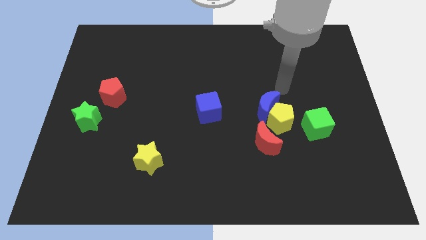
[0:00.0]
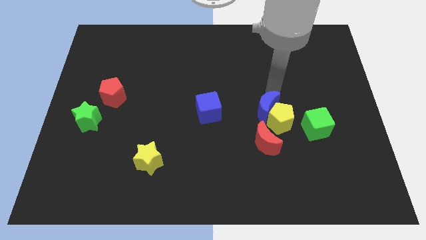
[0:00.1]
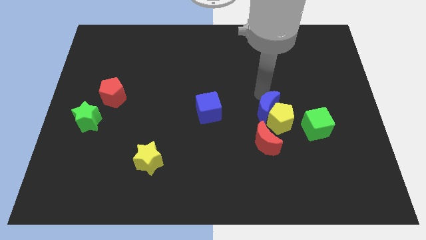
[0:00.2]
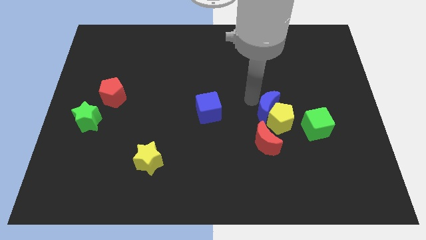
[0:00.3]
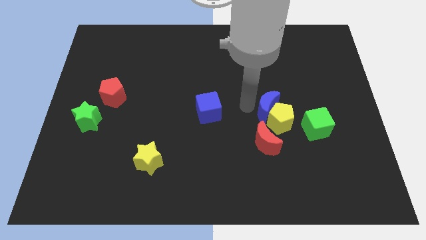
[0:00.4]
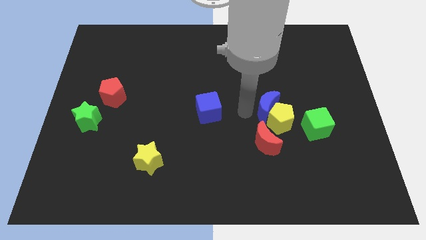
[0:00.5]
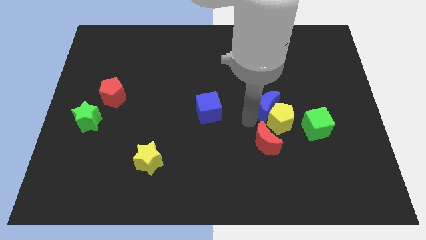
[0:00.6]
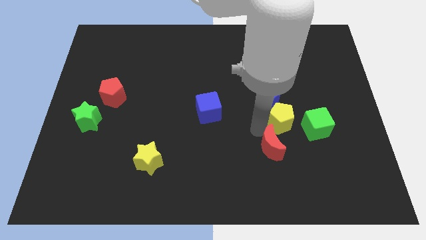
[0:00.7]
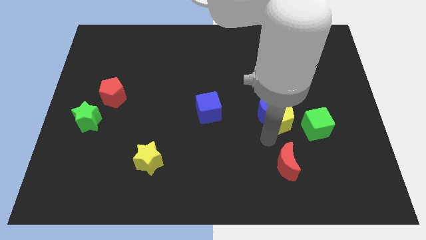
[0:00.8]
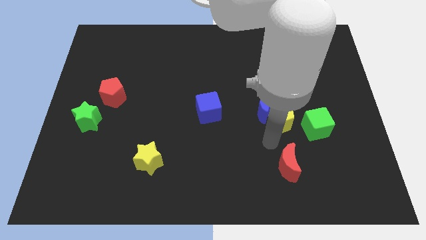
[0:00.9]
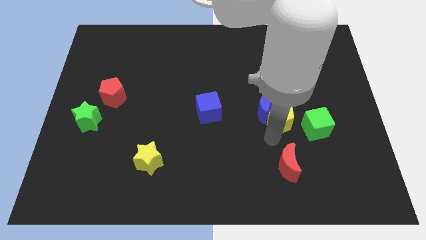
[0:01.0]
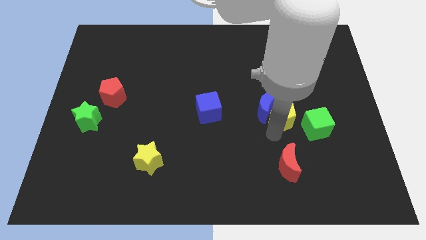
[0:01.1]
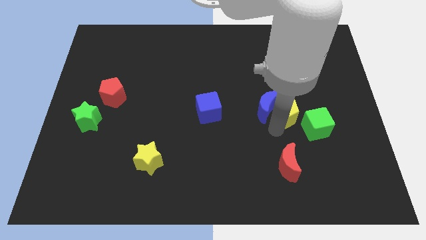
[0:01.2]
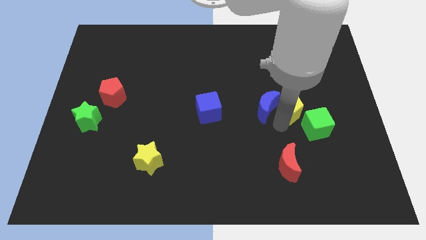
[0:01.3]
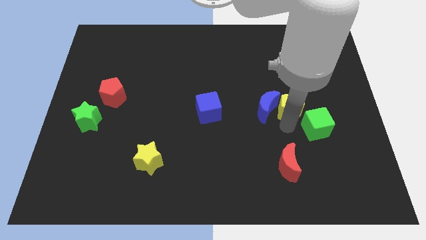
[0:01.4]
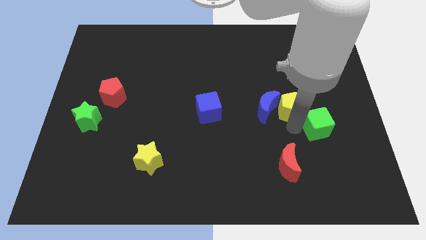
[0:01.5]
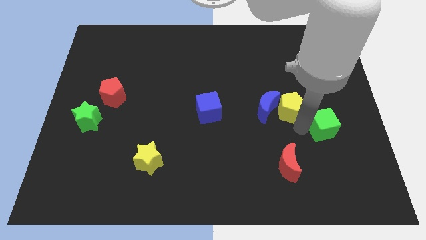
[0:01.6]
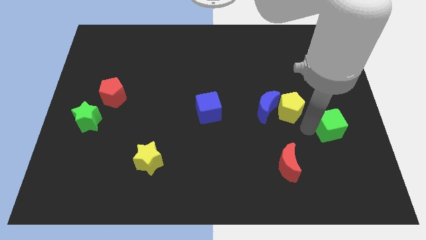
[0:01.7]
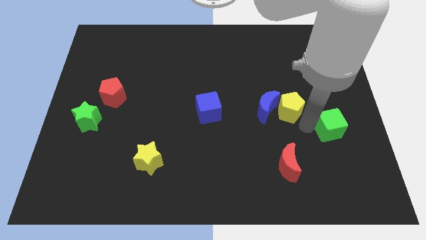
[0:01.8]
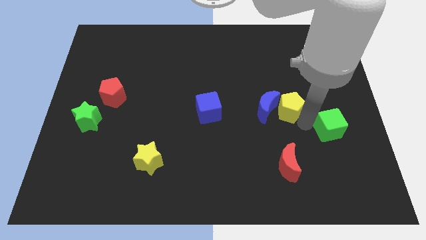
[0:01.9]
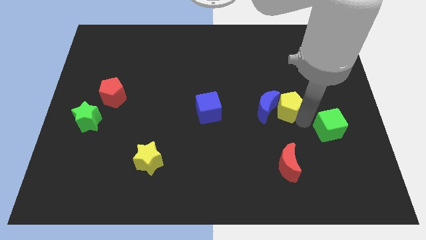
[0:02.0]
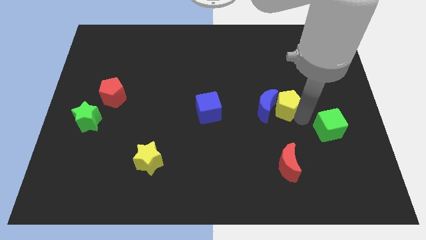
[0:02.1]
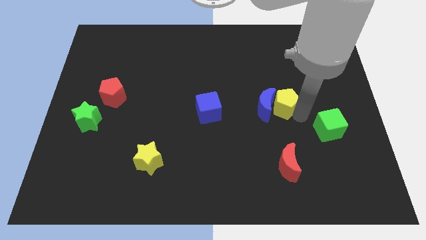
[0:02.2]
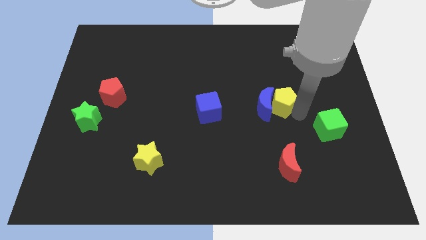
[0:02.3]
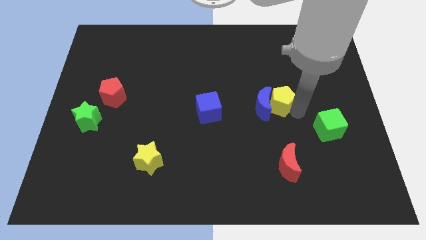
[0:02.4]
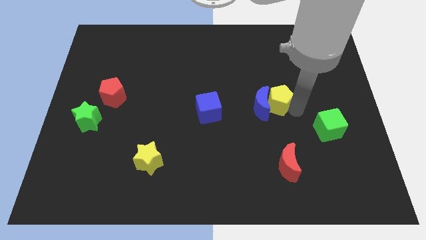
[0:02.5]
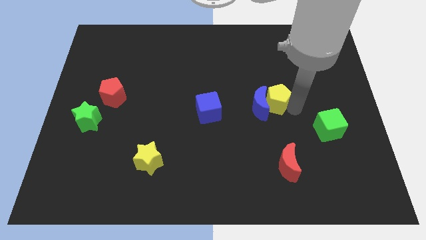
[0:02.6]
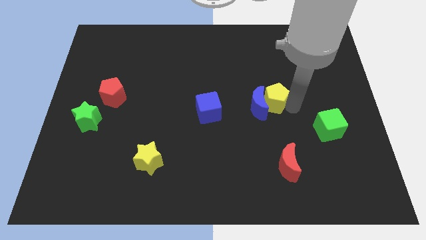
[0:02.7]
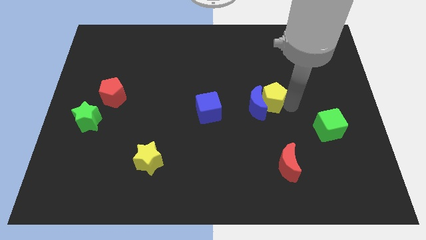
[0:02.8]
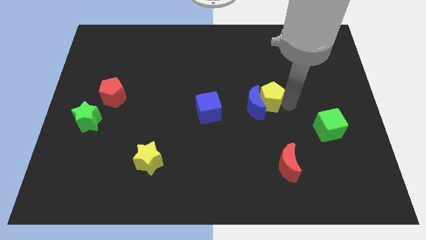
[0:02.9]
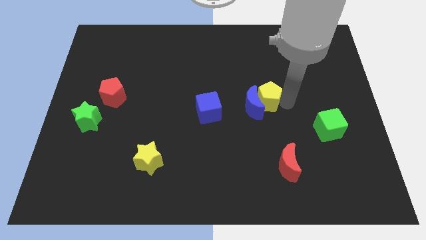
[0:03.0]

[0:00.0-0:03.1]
separate the yellow pentagon from the blue moon, red moon, and green cube

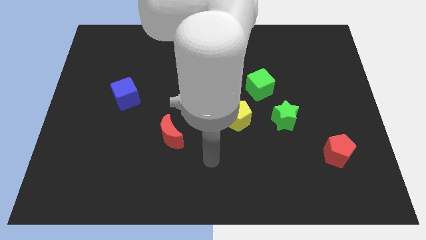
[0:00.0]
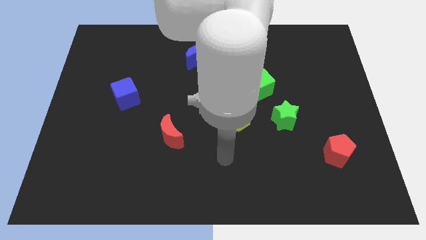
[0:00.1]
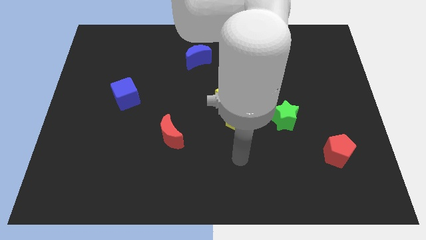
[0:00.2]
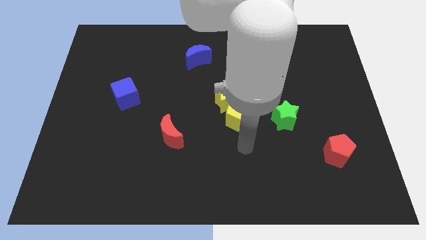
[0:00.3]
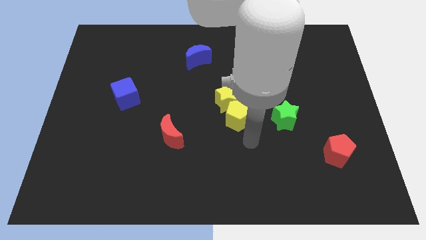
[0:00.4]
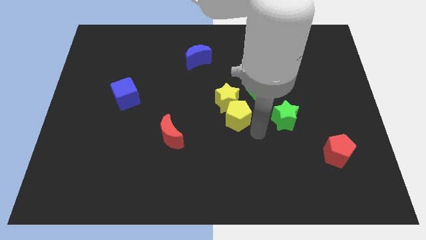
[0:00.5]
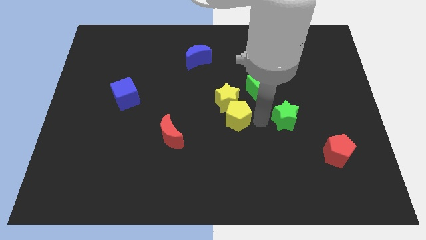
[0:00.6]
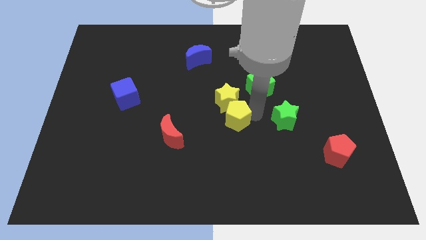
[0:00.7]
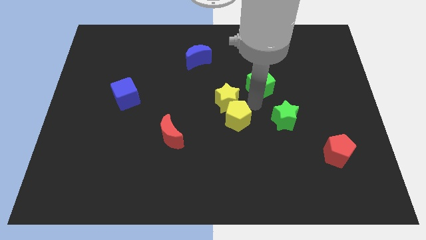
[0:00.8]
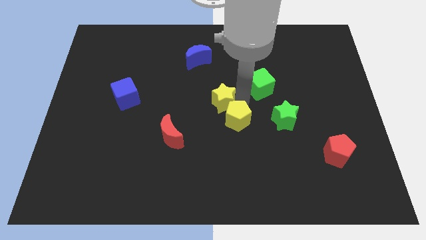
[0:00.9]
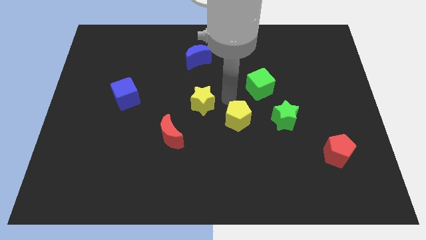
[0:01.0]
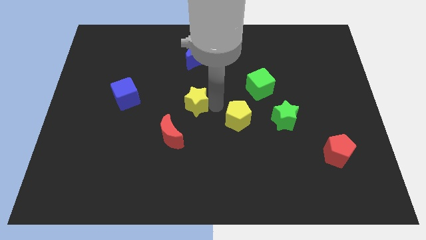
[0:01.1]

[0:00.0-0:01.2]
move the yellow pentagon away from the yellow star

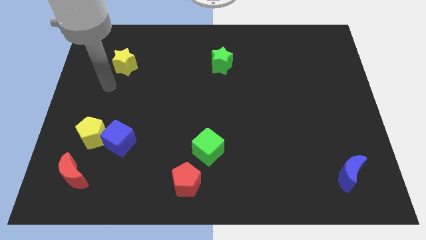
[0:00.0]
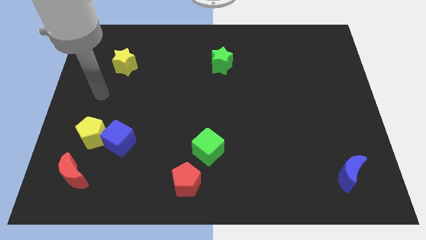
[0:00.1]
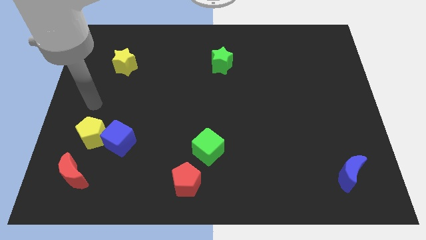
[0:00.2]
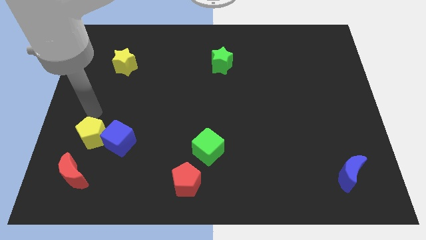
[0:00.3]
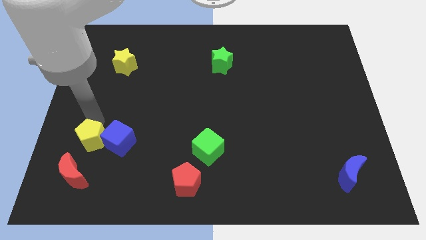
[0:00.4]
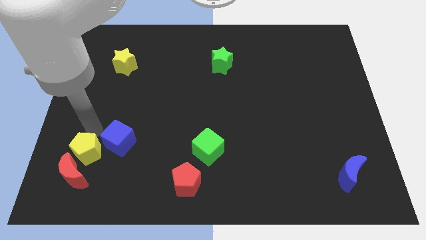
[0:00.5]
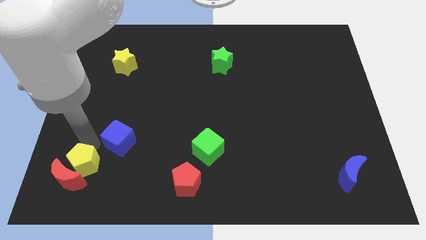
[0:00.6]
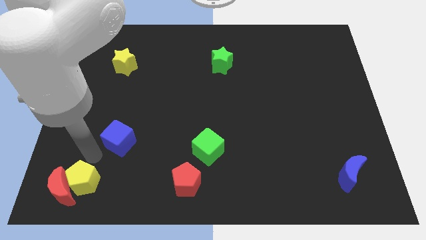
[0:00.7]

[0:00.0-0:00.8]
move the blue cube away from the yellow pentagon

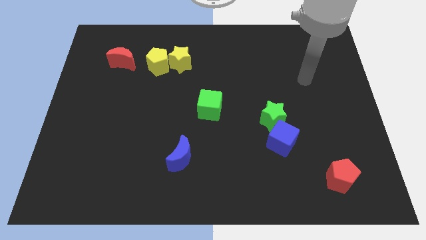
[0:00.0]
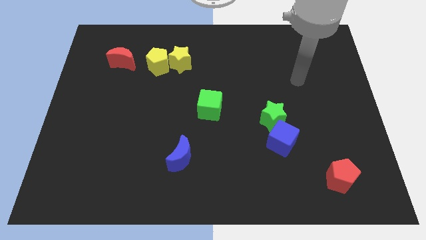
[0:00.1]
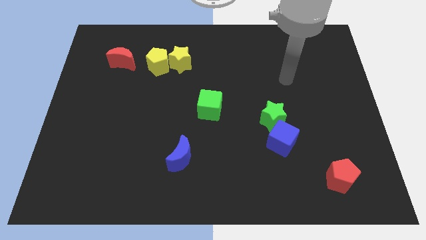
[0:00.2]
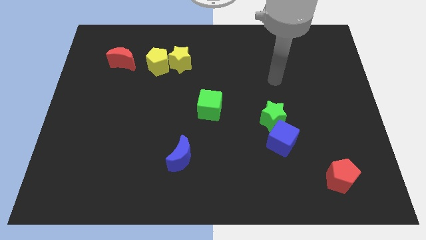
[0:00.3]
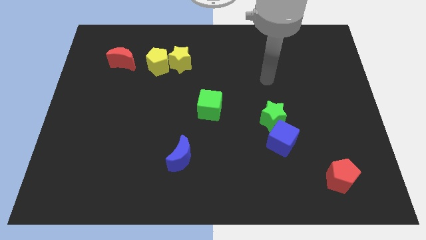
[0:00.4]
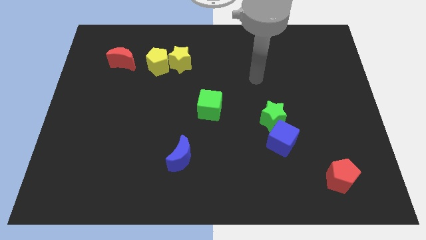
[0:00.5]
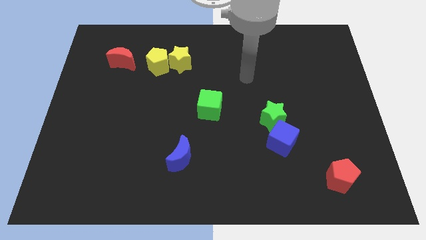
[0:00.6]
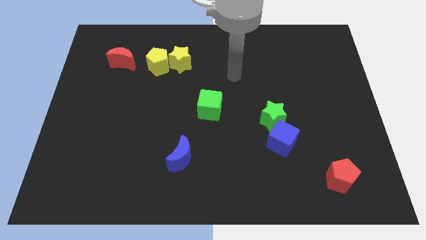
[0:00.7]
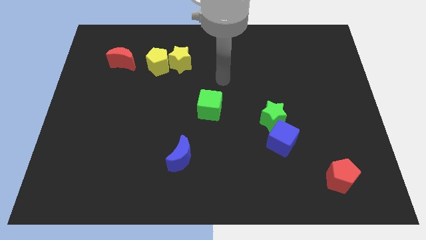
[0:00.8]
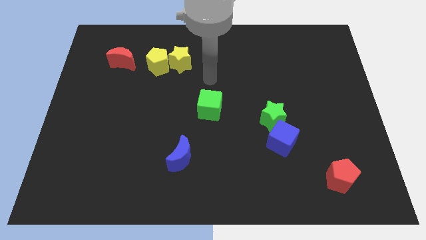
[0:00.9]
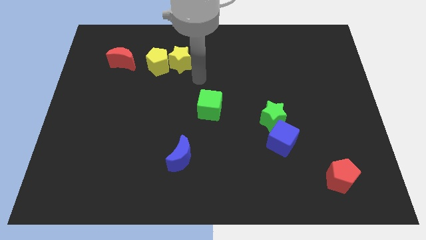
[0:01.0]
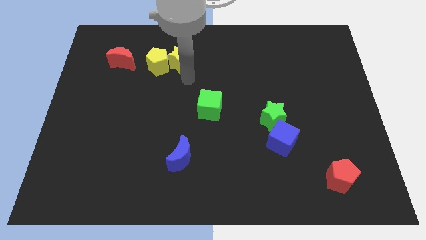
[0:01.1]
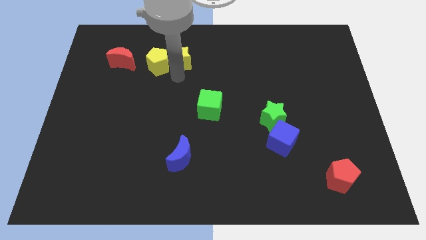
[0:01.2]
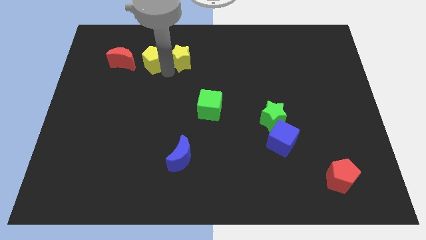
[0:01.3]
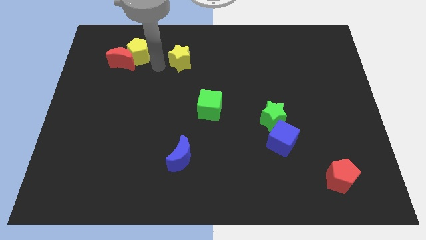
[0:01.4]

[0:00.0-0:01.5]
pull the yellow star apart from the yellow pentagon

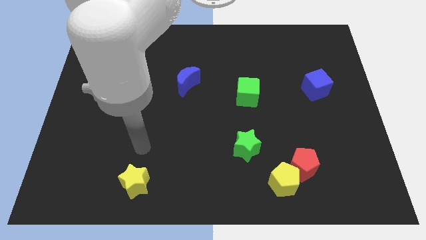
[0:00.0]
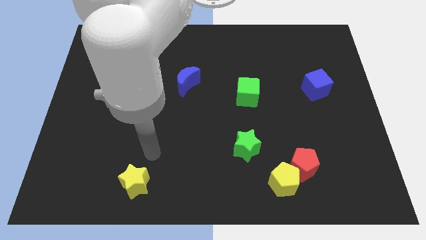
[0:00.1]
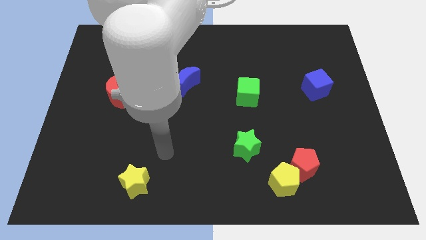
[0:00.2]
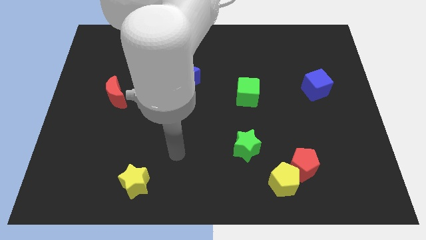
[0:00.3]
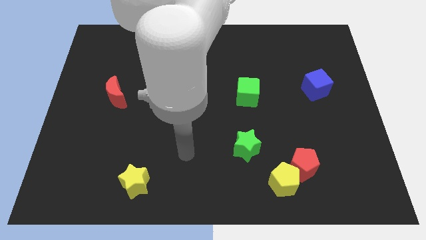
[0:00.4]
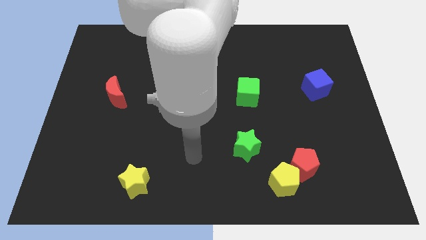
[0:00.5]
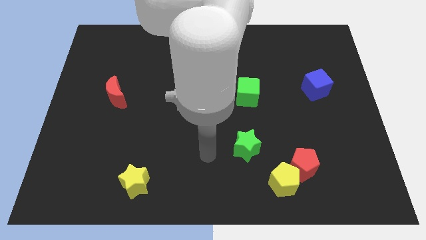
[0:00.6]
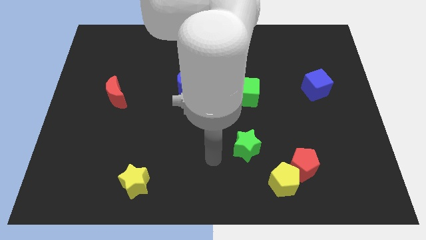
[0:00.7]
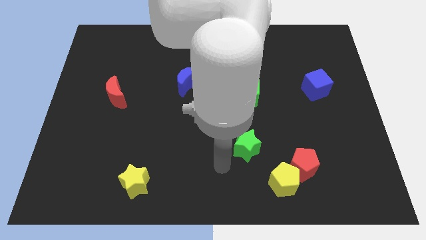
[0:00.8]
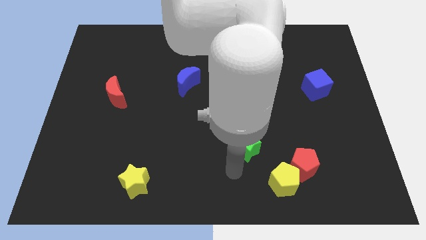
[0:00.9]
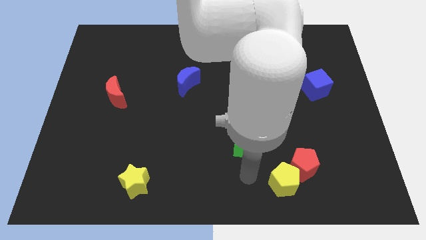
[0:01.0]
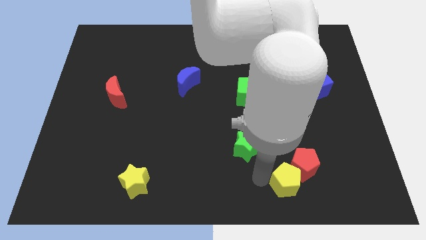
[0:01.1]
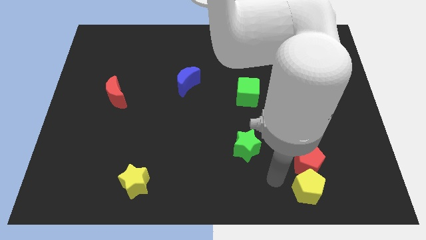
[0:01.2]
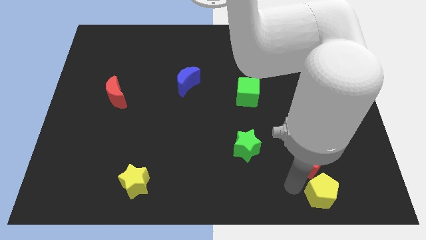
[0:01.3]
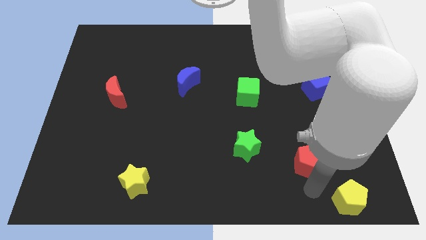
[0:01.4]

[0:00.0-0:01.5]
move the red pentagon away from the yellow pentagon

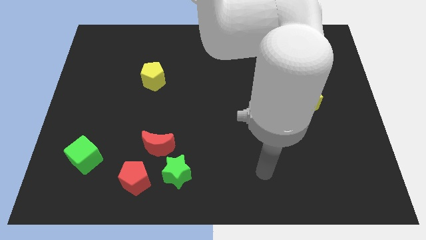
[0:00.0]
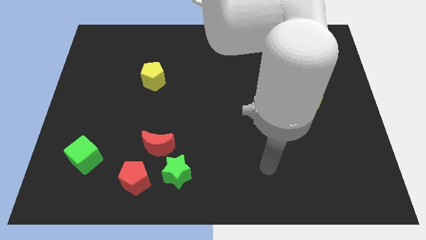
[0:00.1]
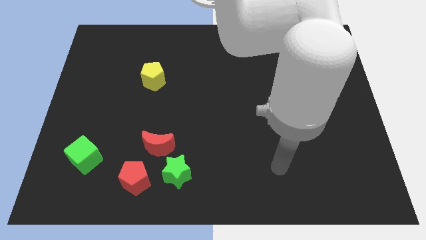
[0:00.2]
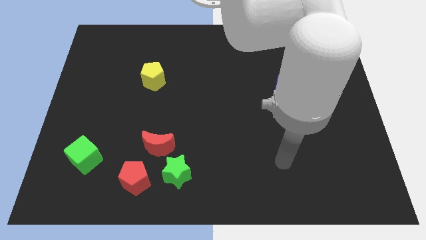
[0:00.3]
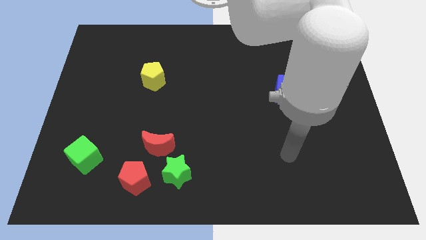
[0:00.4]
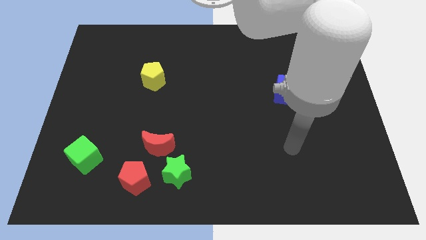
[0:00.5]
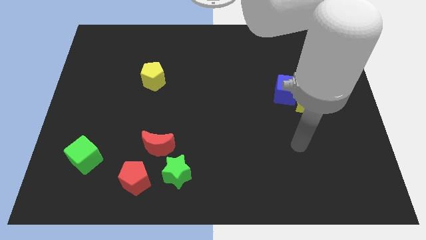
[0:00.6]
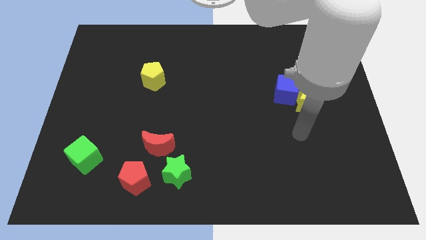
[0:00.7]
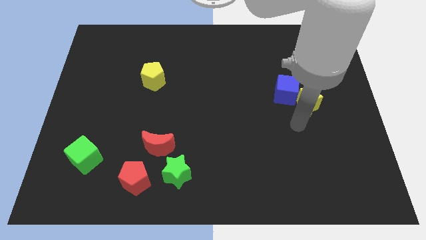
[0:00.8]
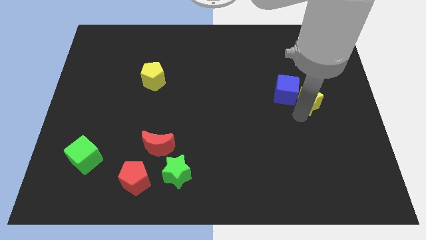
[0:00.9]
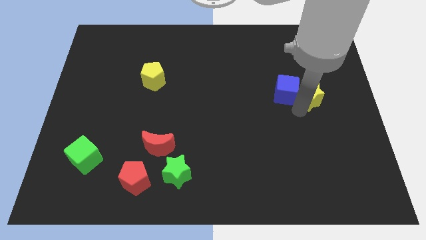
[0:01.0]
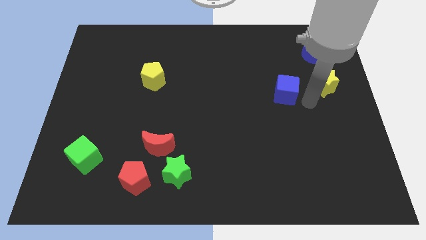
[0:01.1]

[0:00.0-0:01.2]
separate the blue cube from the yellow star
